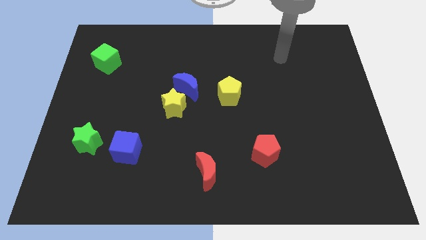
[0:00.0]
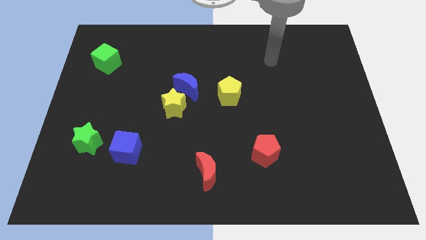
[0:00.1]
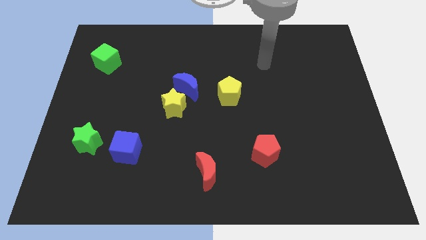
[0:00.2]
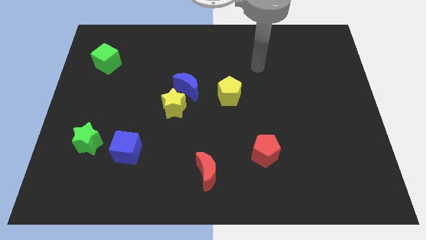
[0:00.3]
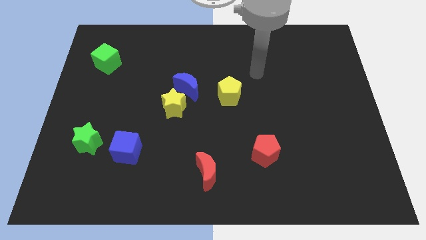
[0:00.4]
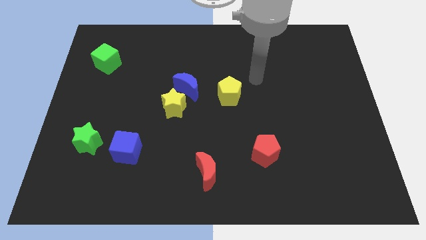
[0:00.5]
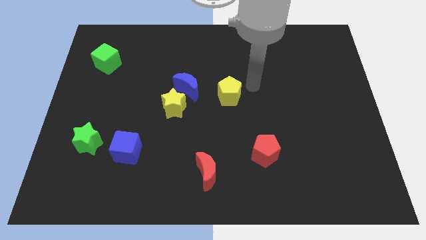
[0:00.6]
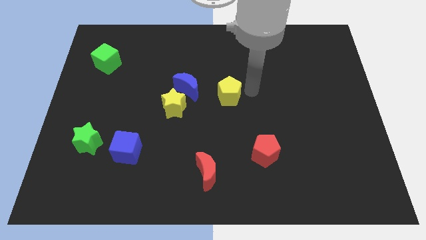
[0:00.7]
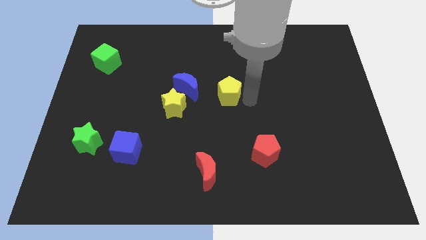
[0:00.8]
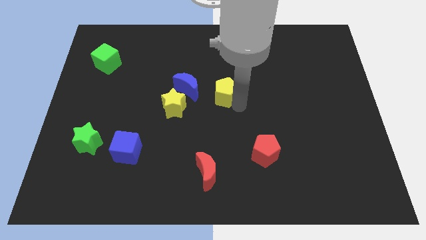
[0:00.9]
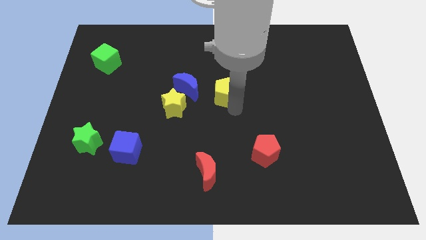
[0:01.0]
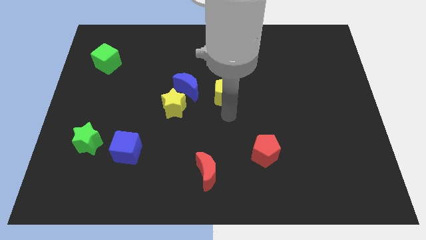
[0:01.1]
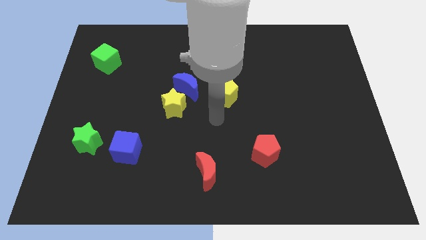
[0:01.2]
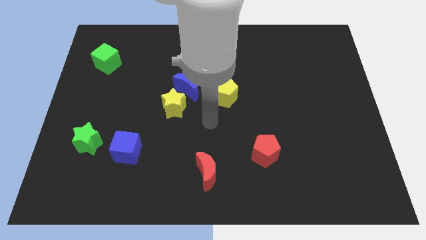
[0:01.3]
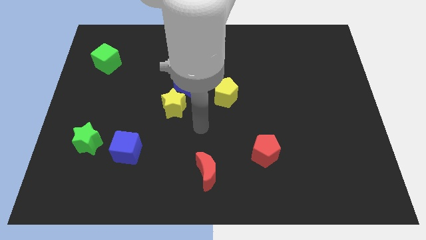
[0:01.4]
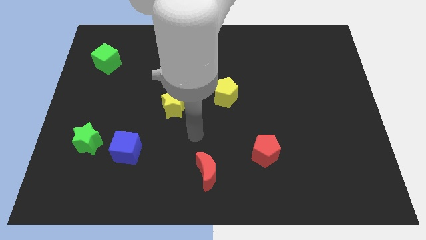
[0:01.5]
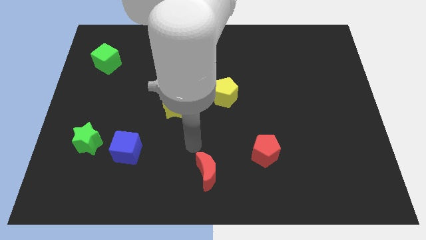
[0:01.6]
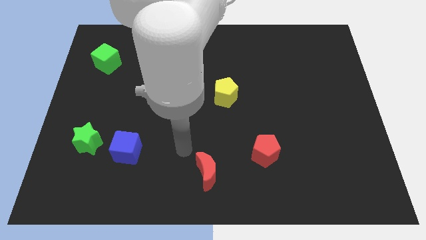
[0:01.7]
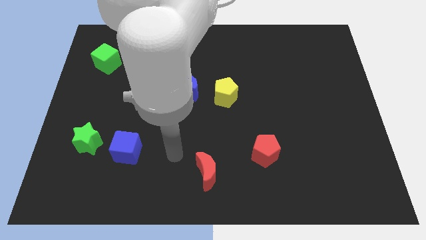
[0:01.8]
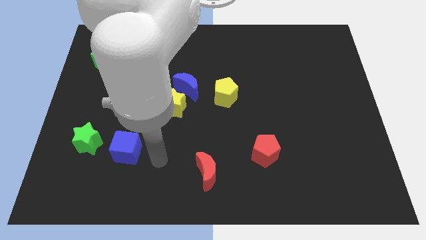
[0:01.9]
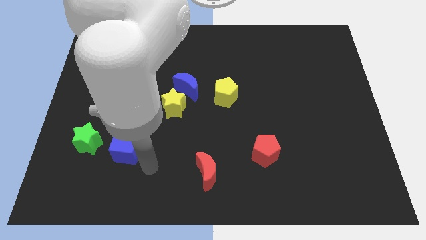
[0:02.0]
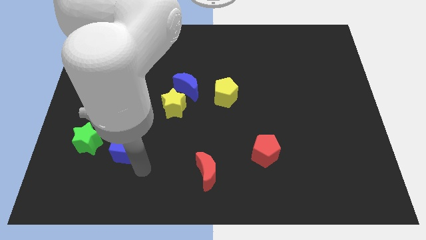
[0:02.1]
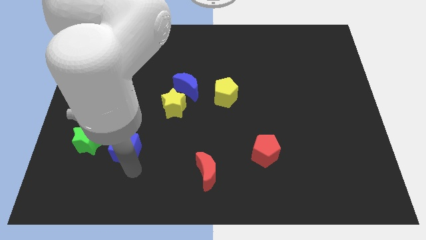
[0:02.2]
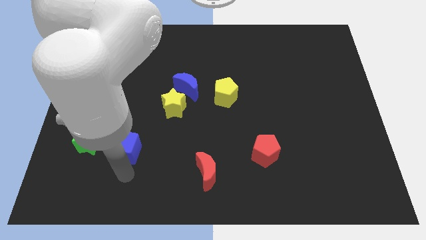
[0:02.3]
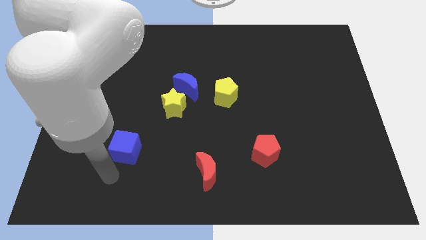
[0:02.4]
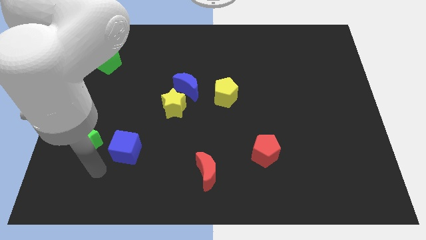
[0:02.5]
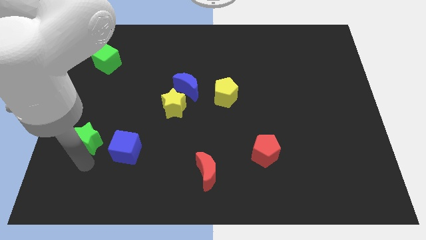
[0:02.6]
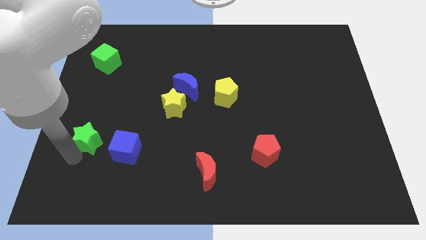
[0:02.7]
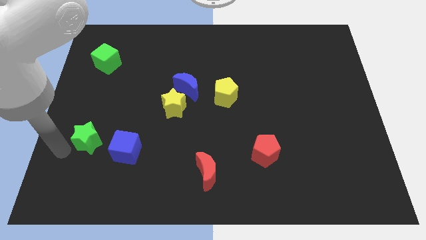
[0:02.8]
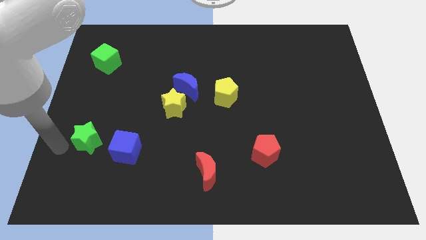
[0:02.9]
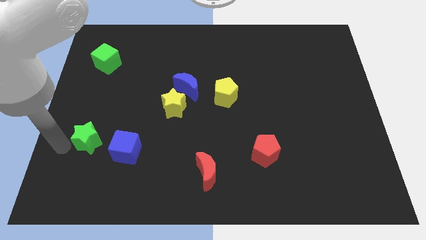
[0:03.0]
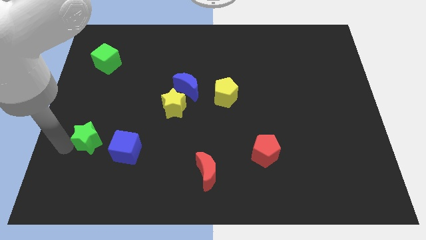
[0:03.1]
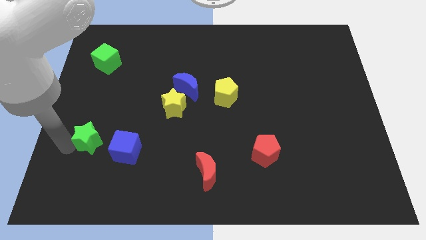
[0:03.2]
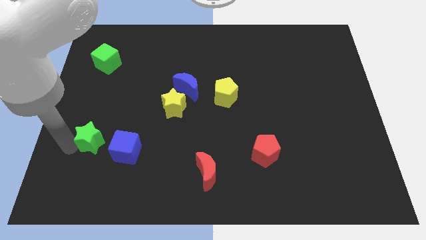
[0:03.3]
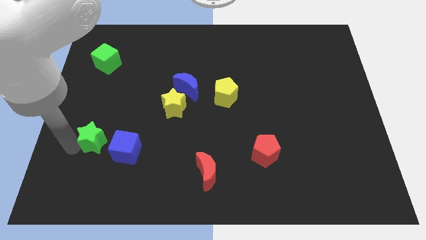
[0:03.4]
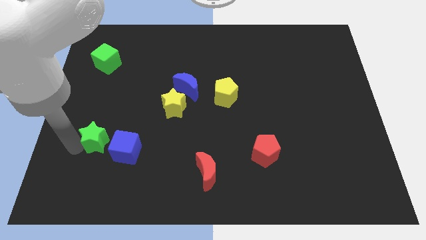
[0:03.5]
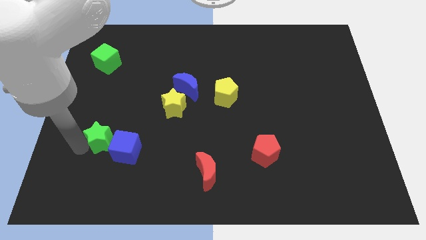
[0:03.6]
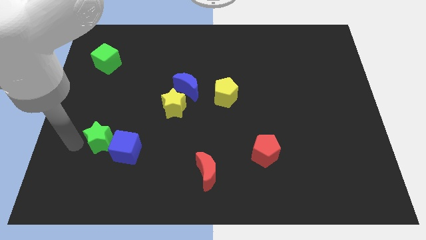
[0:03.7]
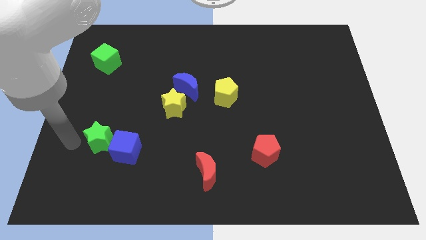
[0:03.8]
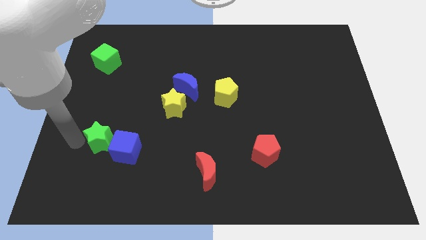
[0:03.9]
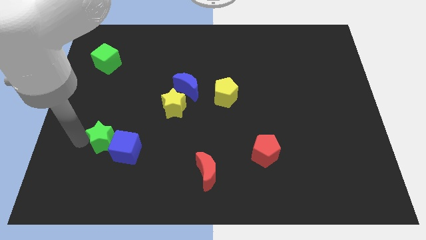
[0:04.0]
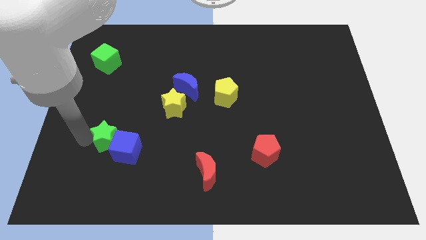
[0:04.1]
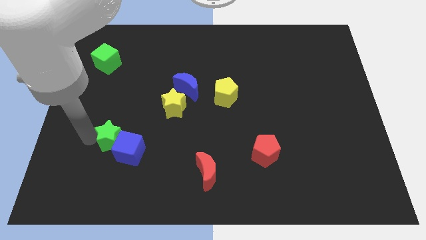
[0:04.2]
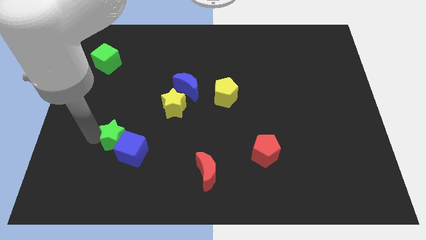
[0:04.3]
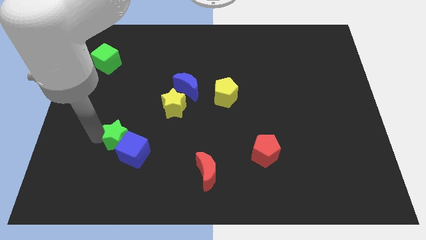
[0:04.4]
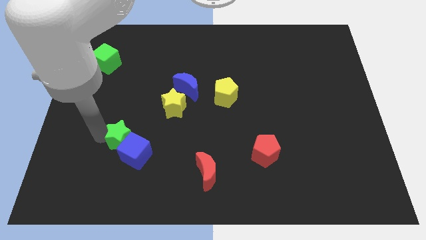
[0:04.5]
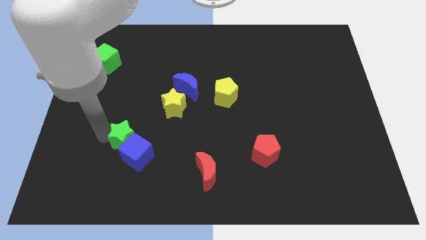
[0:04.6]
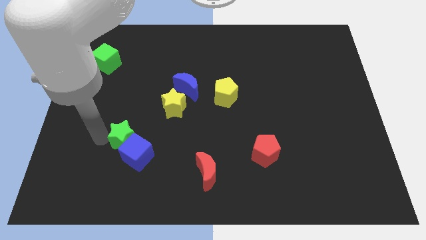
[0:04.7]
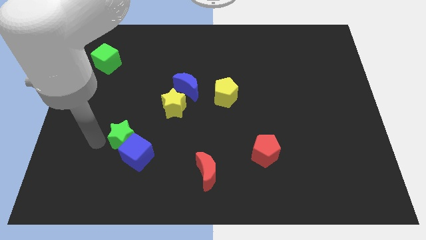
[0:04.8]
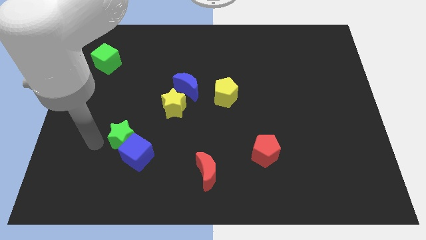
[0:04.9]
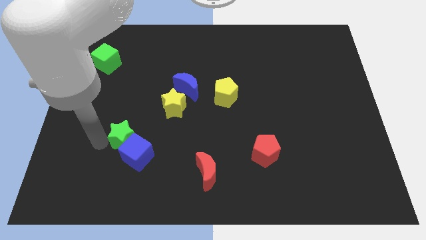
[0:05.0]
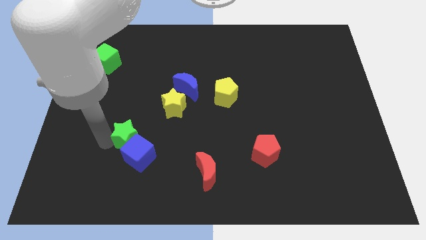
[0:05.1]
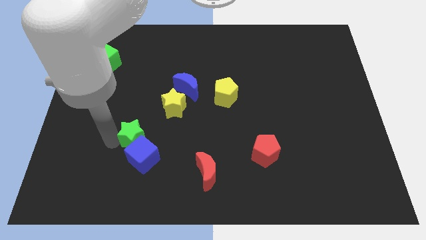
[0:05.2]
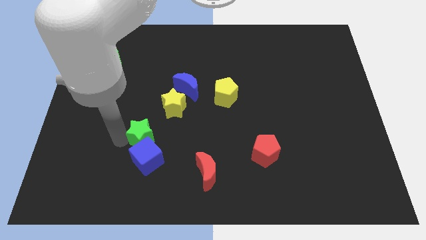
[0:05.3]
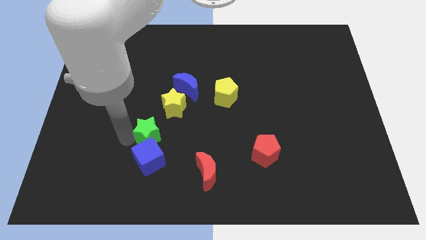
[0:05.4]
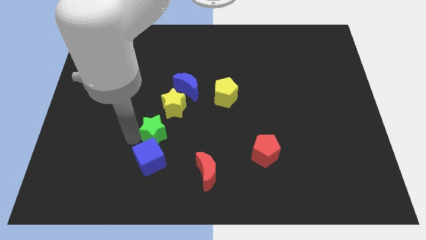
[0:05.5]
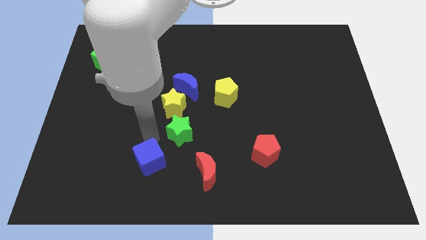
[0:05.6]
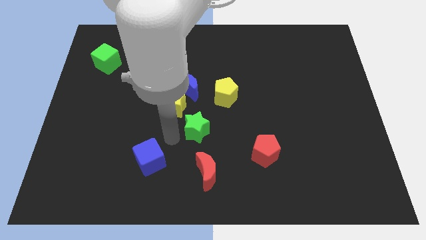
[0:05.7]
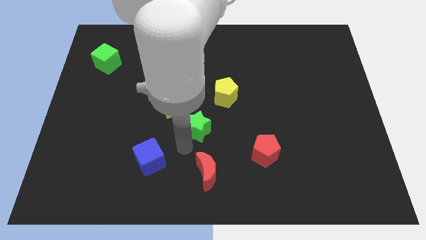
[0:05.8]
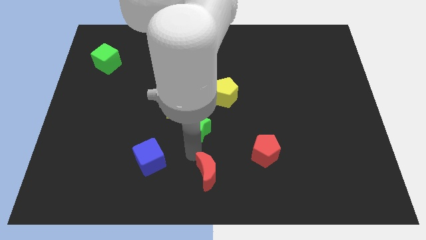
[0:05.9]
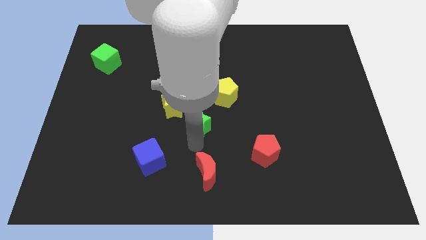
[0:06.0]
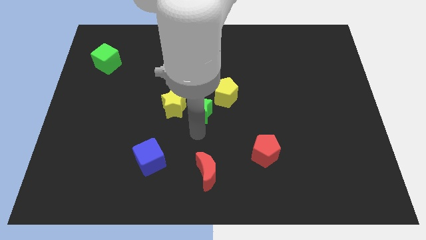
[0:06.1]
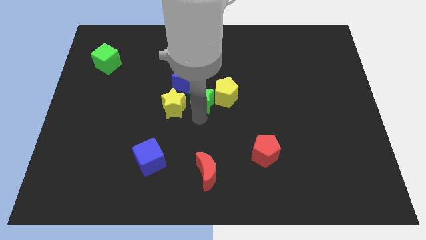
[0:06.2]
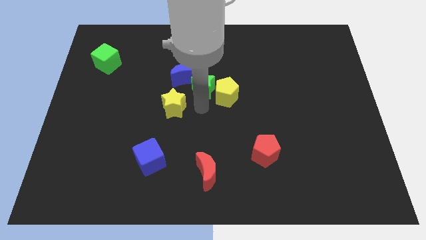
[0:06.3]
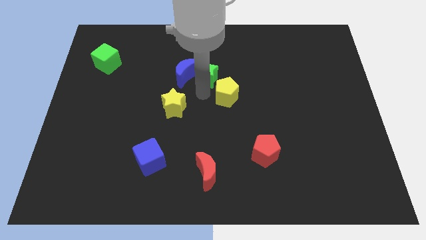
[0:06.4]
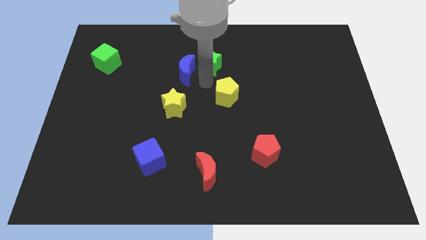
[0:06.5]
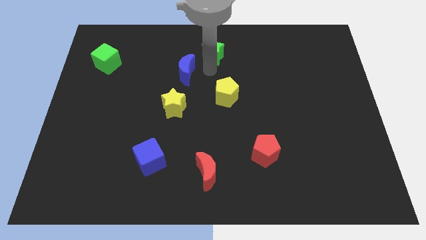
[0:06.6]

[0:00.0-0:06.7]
slide the green star to the top side
